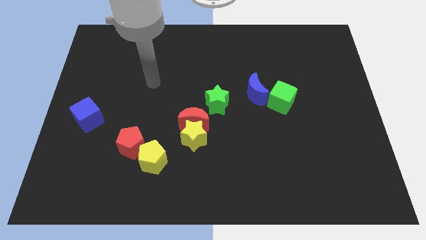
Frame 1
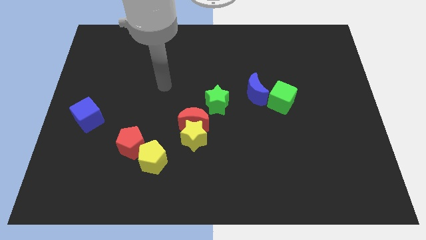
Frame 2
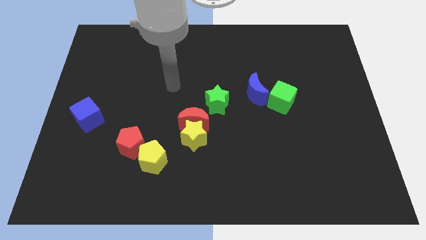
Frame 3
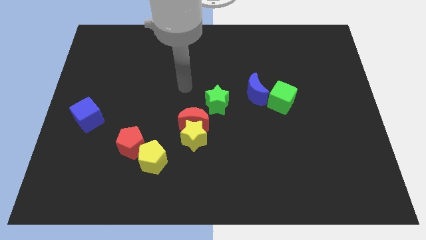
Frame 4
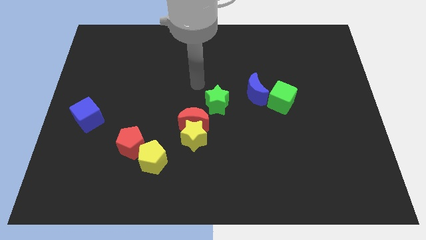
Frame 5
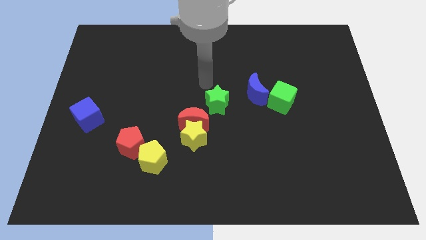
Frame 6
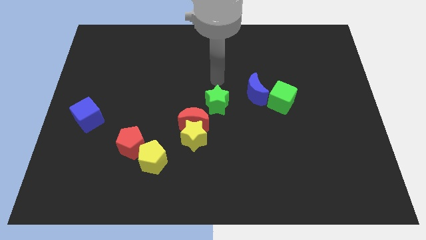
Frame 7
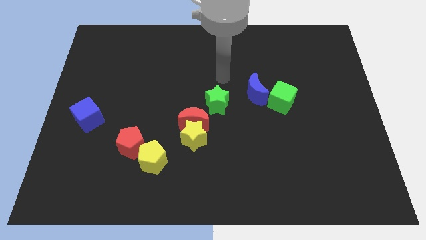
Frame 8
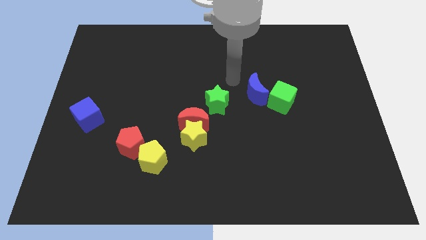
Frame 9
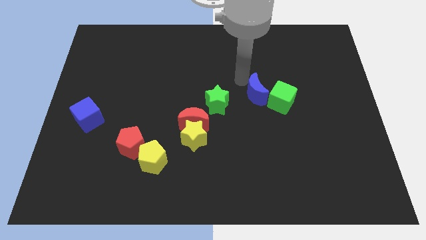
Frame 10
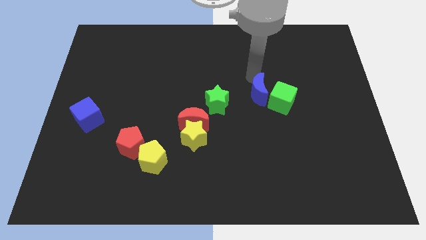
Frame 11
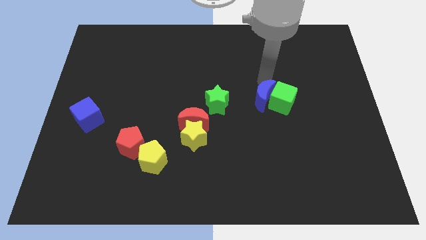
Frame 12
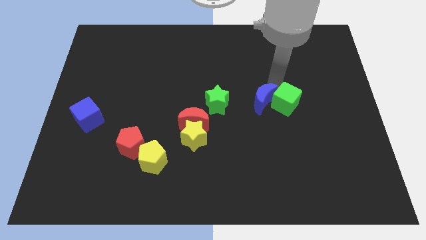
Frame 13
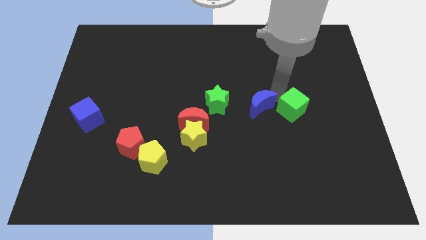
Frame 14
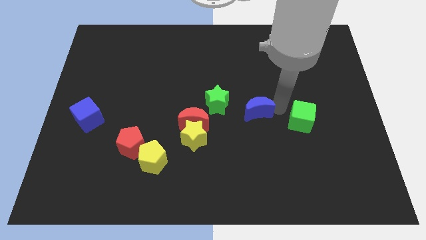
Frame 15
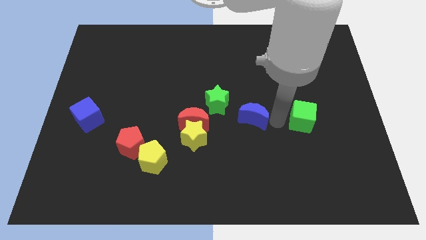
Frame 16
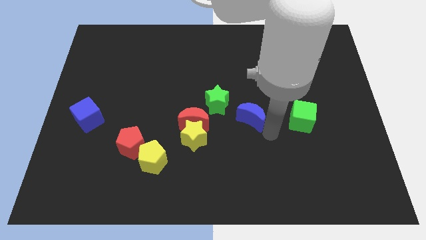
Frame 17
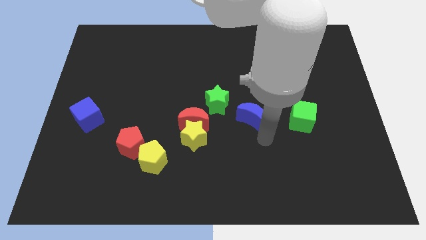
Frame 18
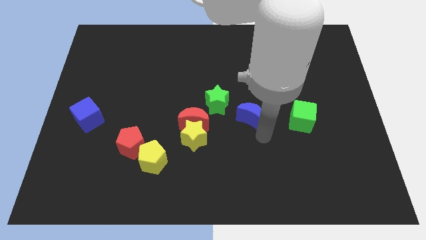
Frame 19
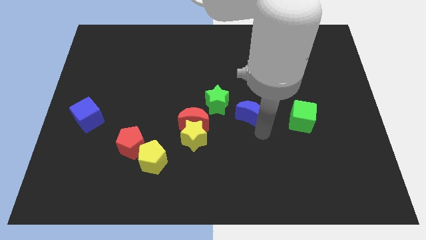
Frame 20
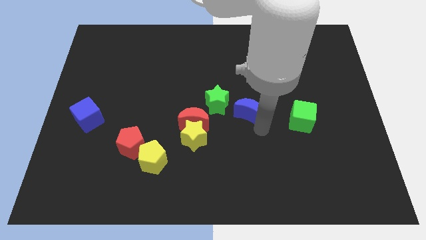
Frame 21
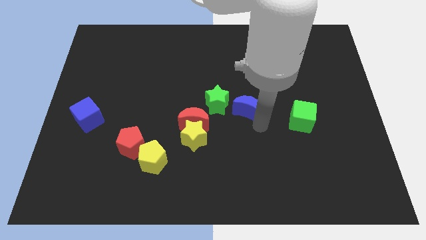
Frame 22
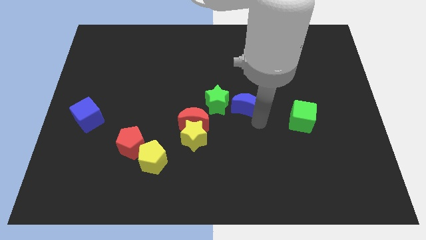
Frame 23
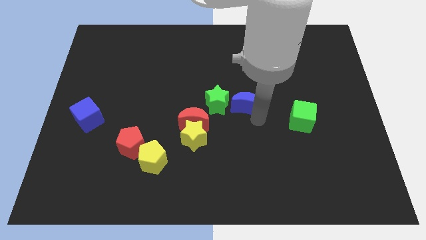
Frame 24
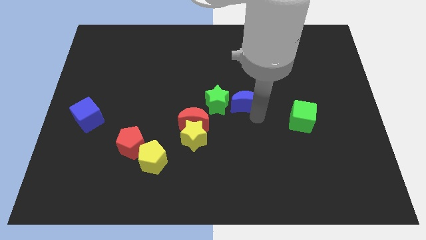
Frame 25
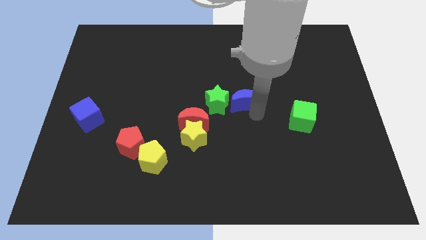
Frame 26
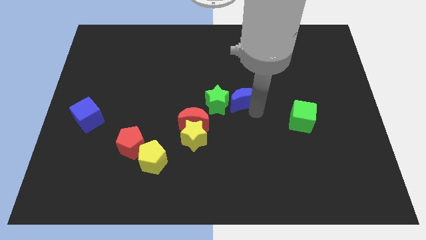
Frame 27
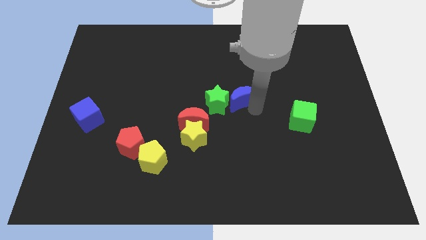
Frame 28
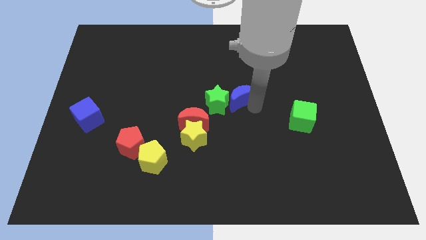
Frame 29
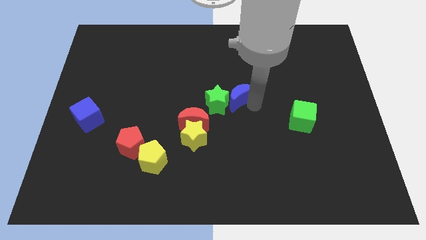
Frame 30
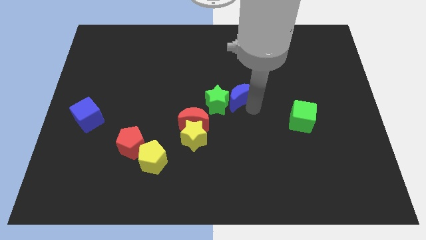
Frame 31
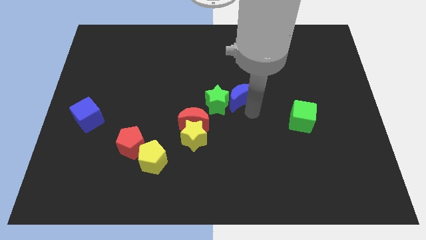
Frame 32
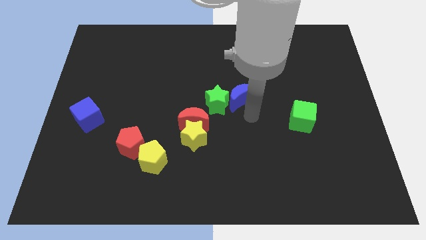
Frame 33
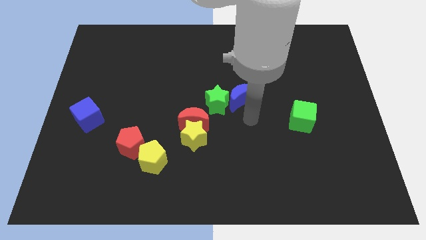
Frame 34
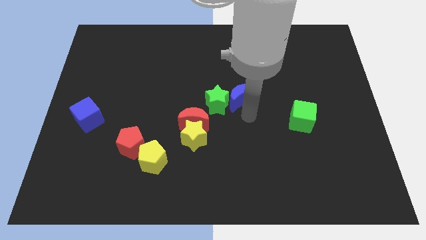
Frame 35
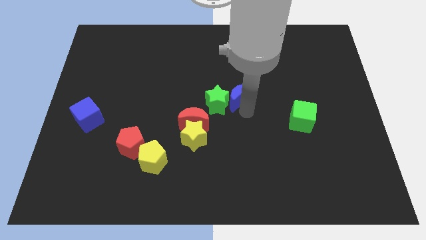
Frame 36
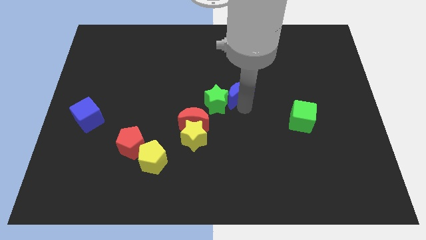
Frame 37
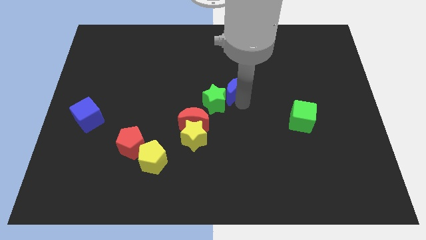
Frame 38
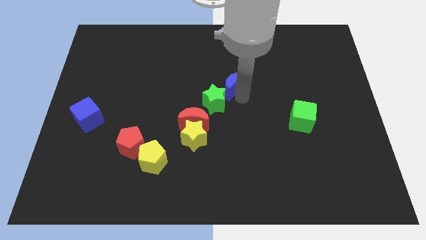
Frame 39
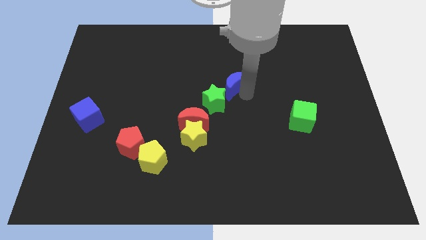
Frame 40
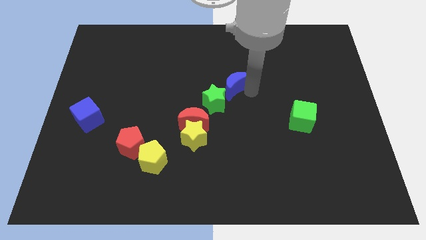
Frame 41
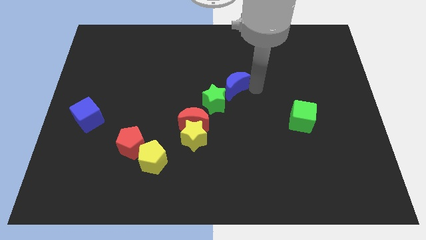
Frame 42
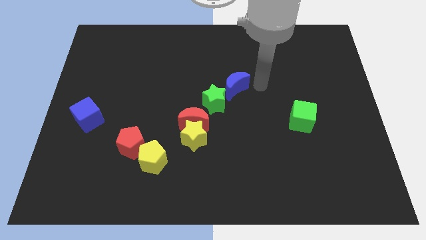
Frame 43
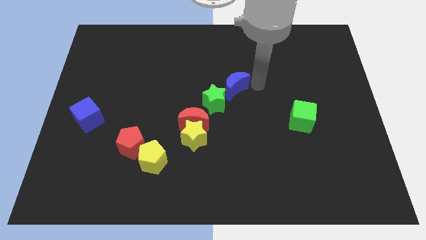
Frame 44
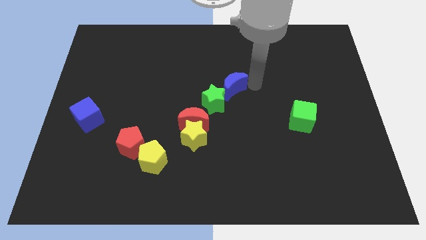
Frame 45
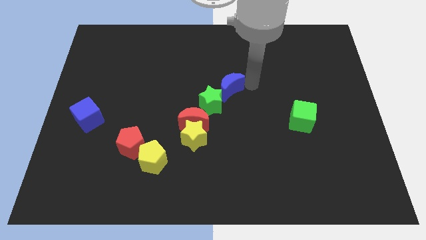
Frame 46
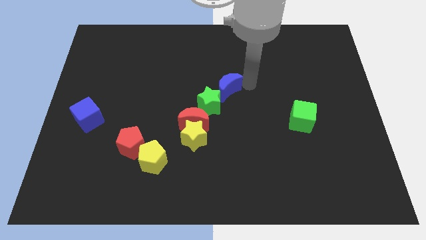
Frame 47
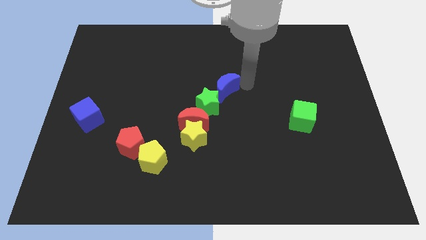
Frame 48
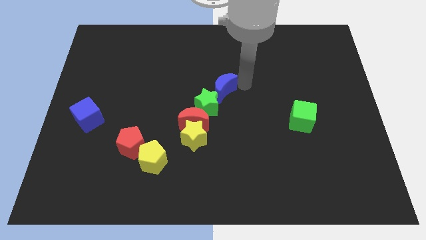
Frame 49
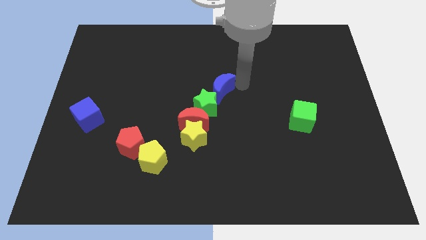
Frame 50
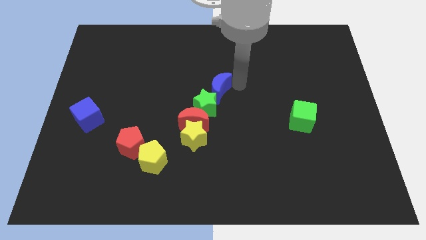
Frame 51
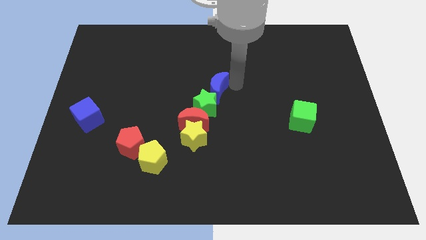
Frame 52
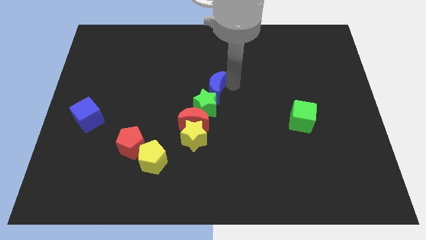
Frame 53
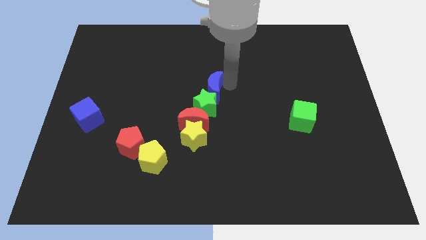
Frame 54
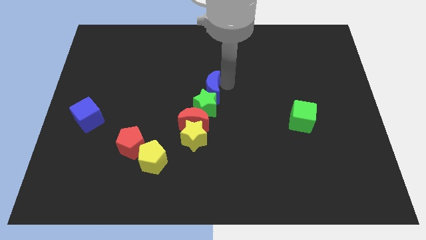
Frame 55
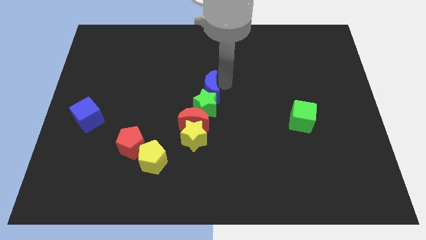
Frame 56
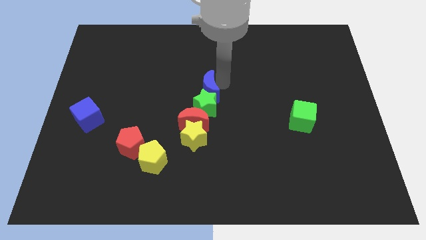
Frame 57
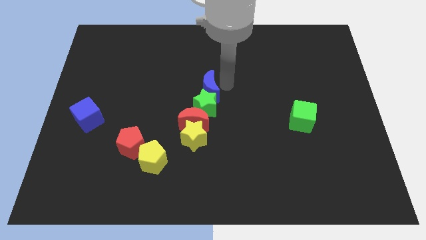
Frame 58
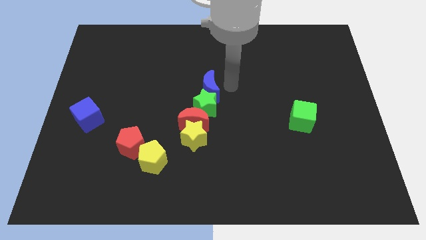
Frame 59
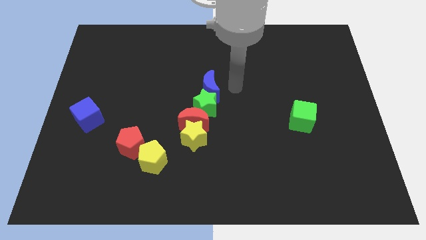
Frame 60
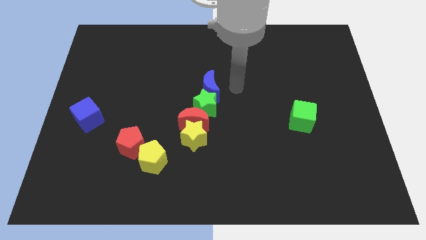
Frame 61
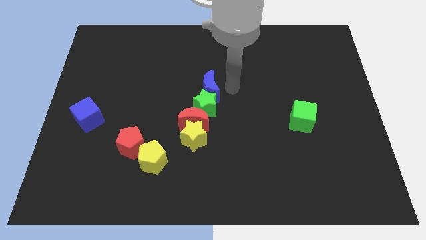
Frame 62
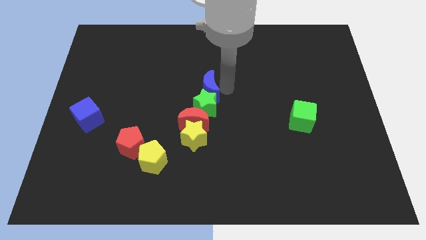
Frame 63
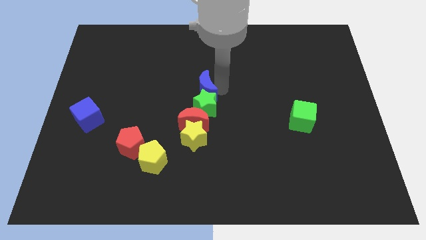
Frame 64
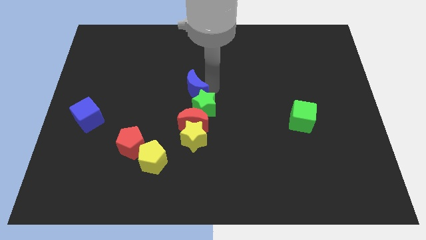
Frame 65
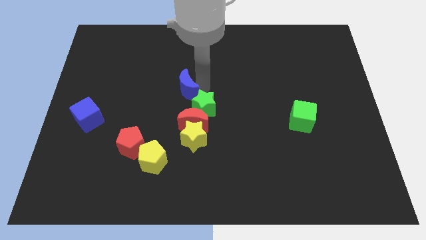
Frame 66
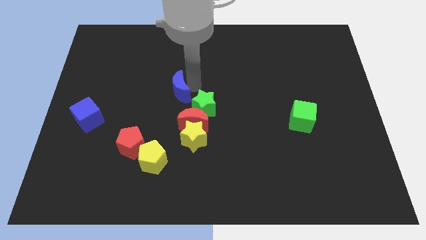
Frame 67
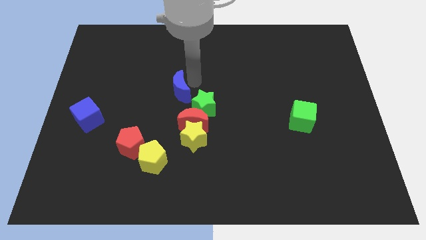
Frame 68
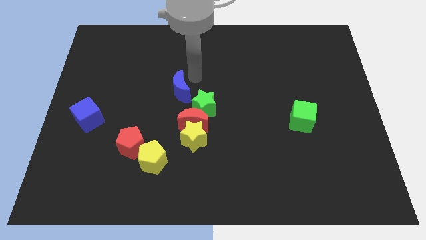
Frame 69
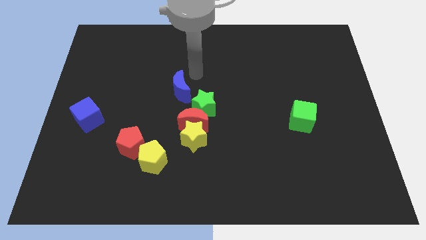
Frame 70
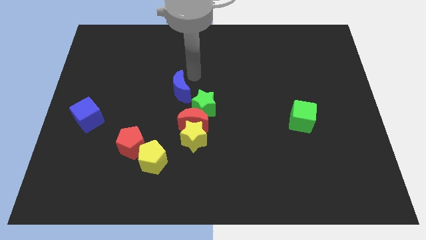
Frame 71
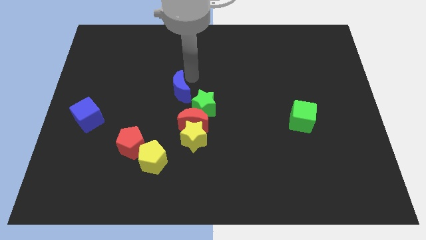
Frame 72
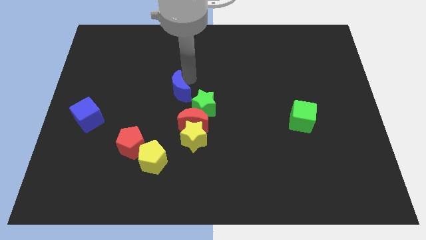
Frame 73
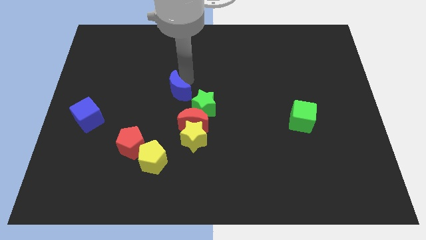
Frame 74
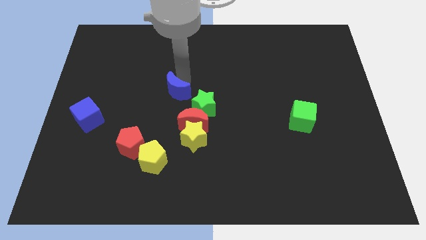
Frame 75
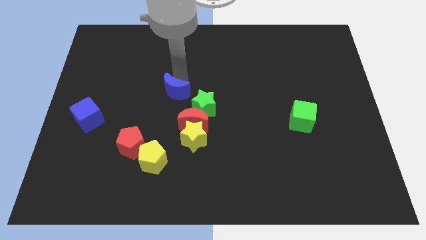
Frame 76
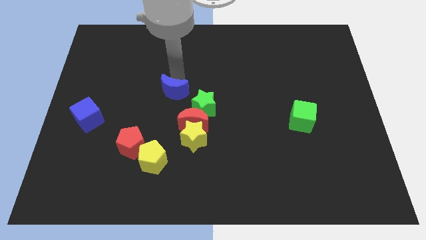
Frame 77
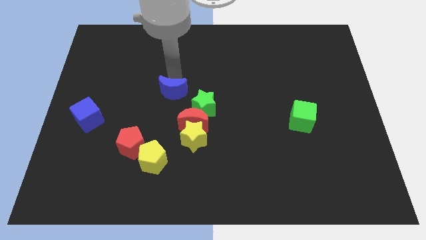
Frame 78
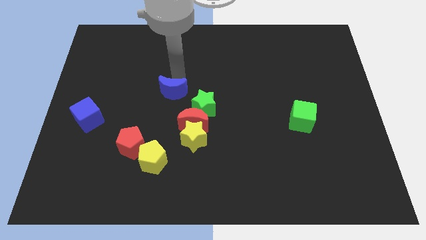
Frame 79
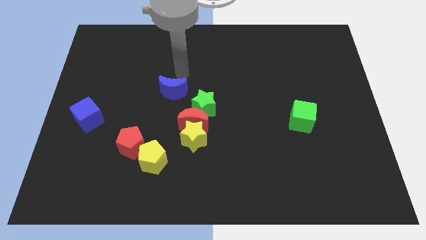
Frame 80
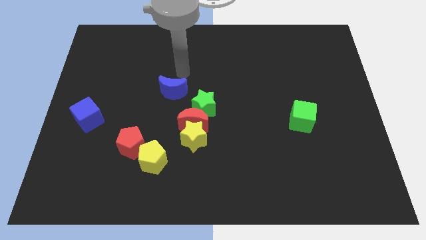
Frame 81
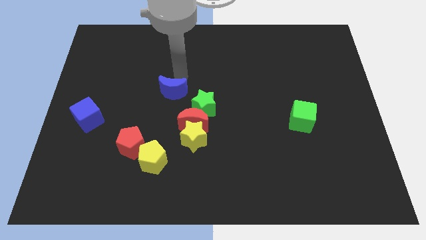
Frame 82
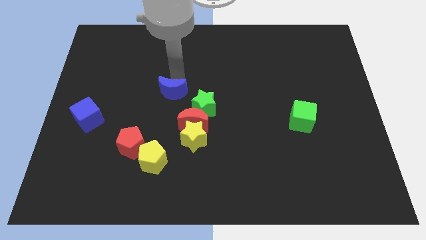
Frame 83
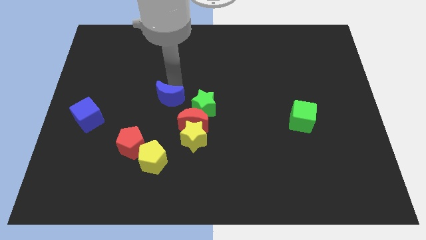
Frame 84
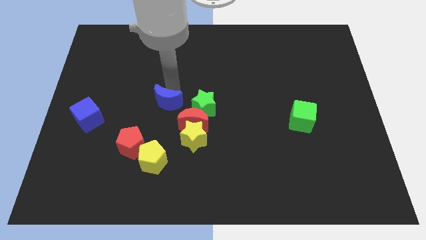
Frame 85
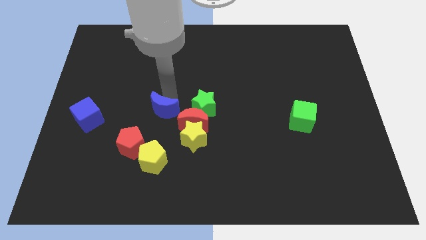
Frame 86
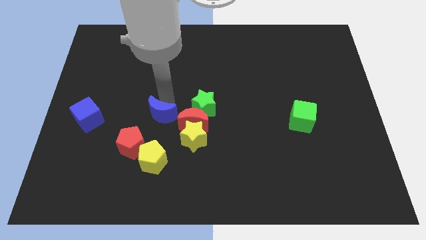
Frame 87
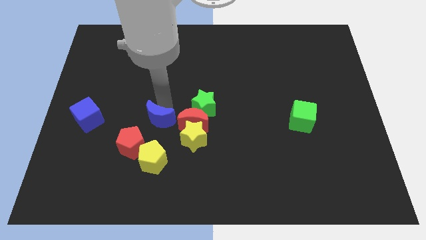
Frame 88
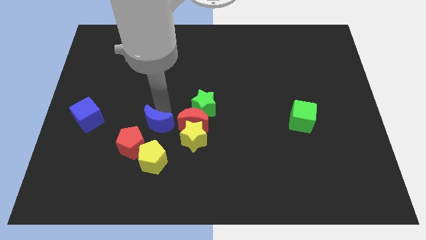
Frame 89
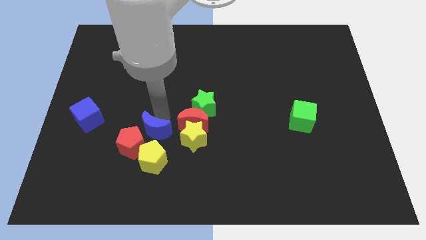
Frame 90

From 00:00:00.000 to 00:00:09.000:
slide the blue moon close to the red pentagon
